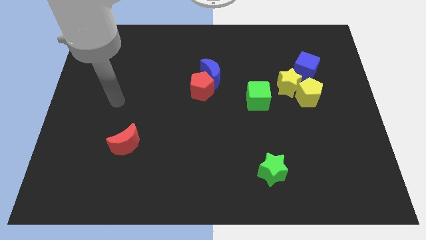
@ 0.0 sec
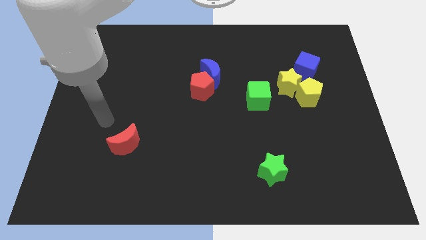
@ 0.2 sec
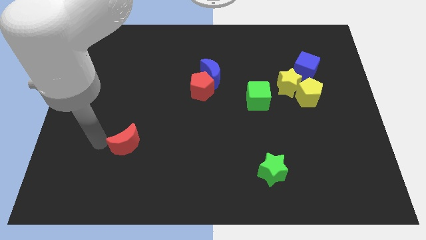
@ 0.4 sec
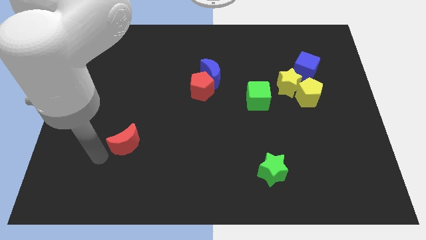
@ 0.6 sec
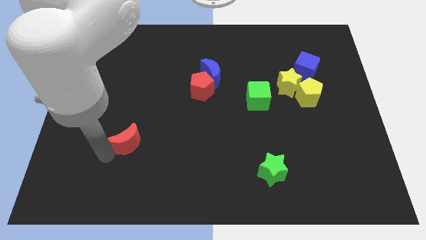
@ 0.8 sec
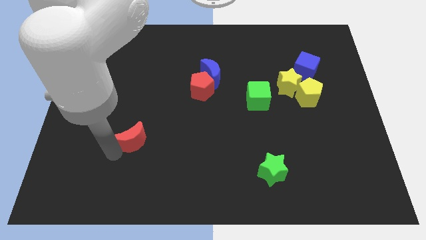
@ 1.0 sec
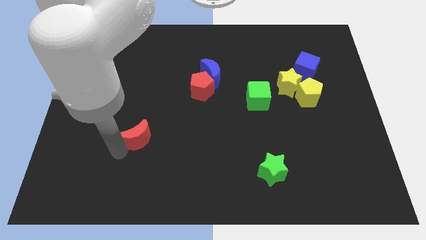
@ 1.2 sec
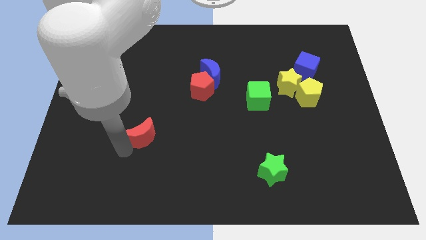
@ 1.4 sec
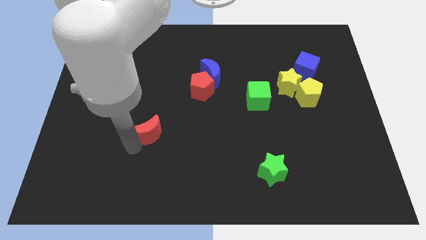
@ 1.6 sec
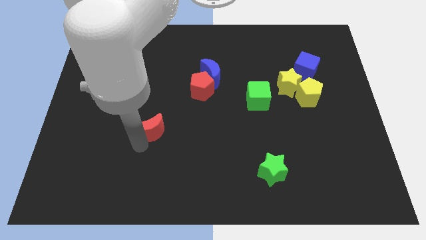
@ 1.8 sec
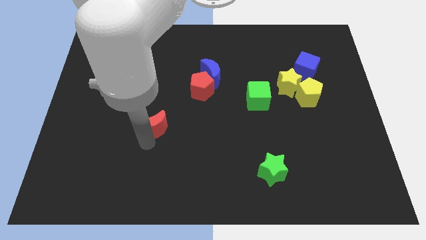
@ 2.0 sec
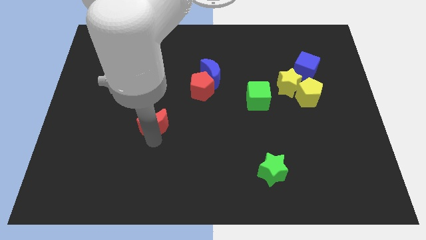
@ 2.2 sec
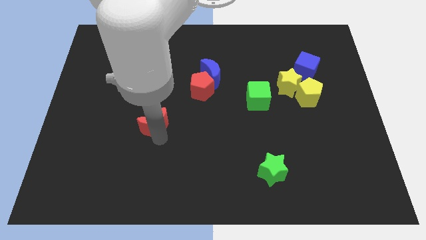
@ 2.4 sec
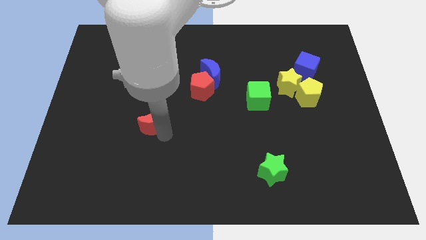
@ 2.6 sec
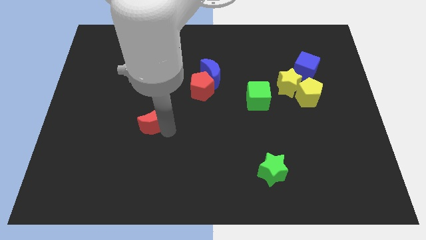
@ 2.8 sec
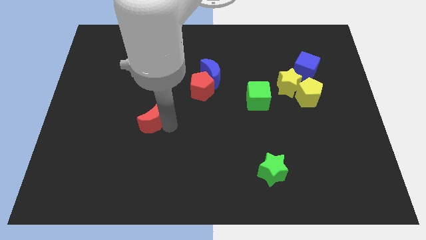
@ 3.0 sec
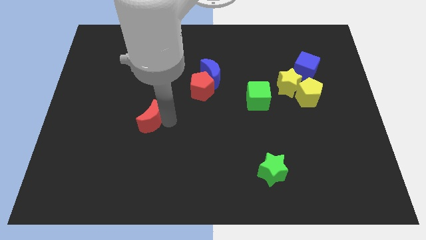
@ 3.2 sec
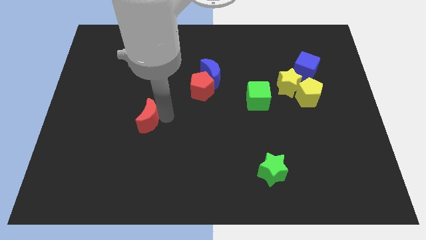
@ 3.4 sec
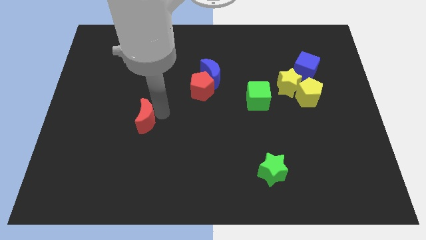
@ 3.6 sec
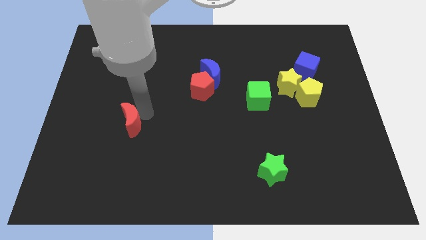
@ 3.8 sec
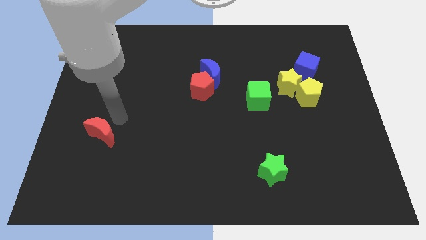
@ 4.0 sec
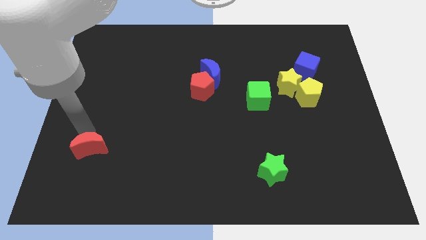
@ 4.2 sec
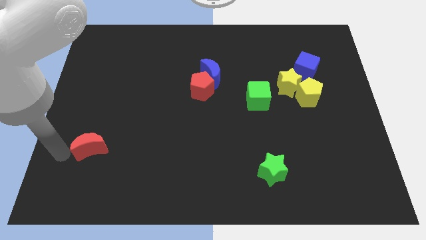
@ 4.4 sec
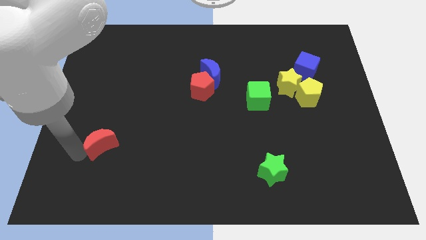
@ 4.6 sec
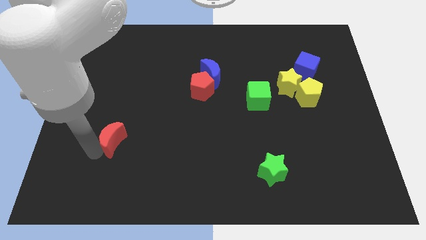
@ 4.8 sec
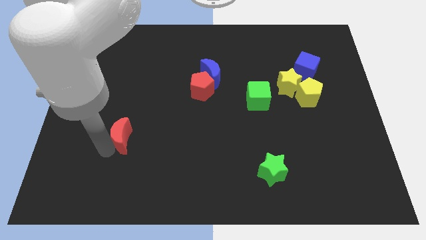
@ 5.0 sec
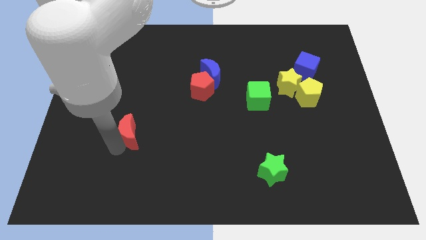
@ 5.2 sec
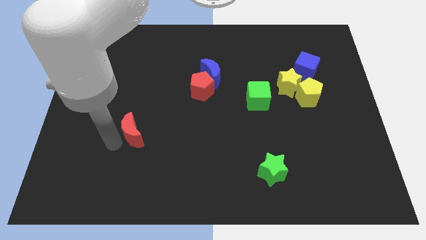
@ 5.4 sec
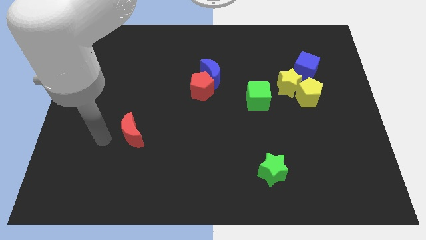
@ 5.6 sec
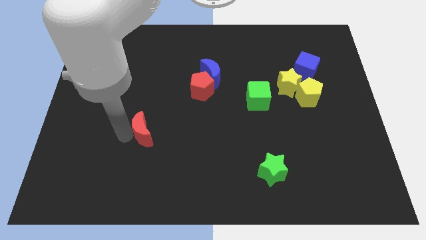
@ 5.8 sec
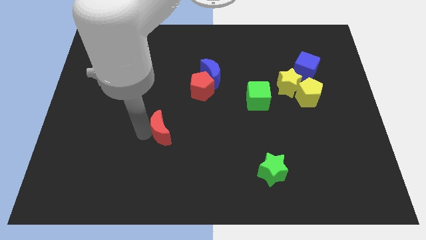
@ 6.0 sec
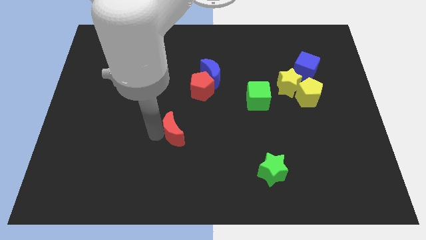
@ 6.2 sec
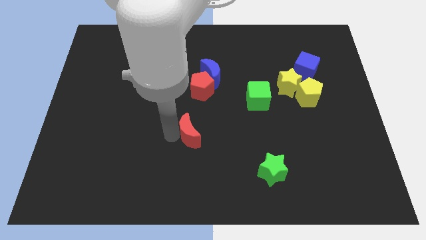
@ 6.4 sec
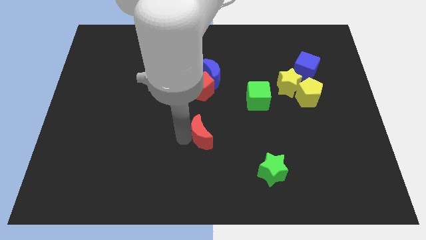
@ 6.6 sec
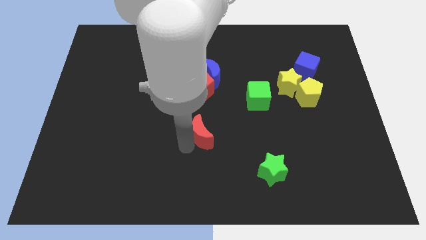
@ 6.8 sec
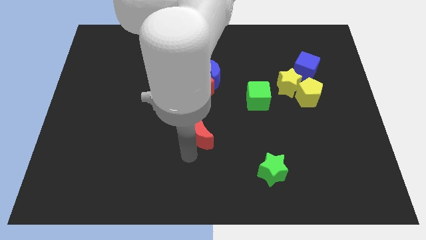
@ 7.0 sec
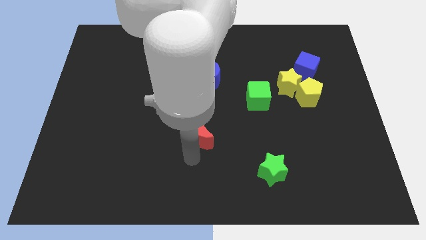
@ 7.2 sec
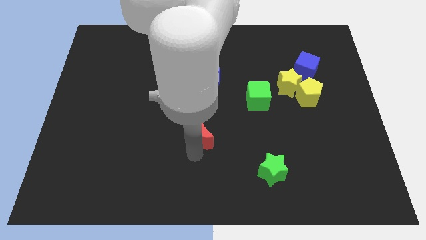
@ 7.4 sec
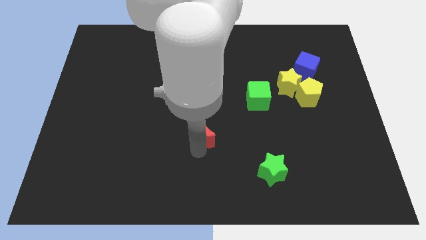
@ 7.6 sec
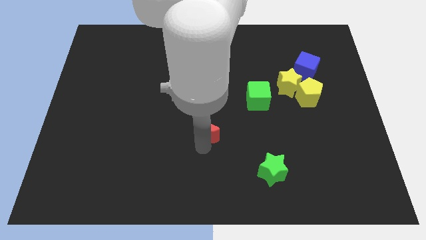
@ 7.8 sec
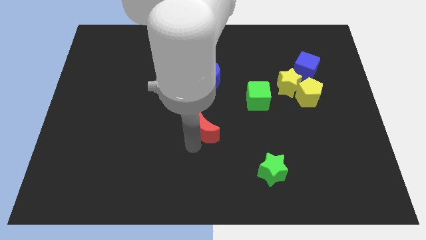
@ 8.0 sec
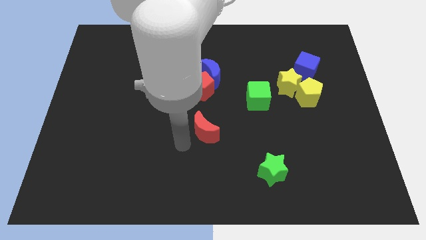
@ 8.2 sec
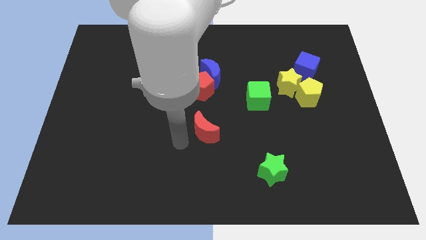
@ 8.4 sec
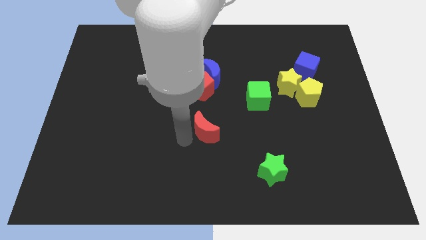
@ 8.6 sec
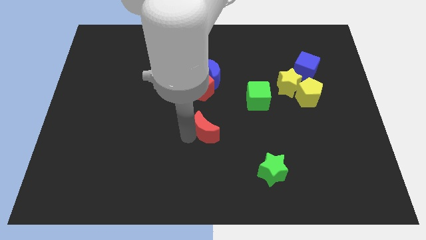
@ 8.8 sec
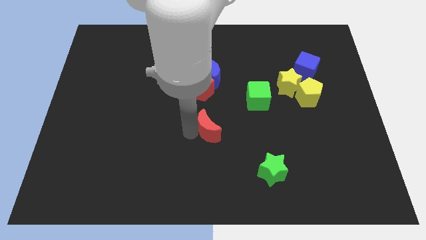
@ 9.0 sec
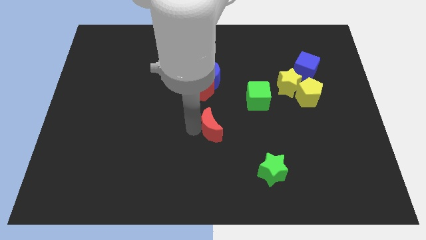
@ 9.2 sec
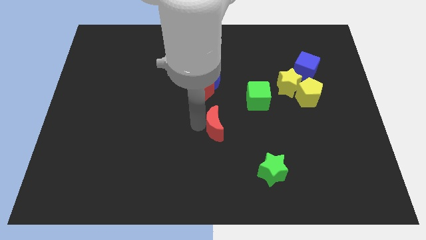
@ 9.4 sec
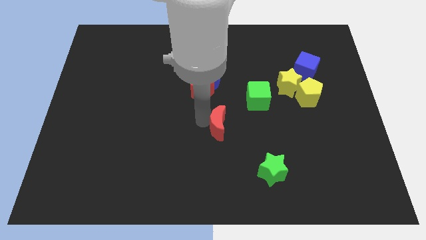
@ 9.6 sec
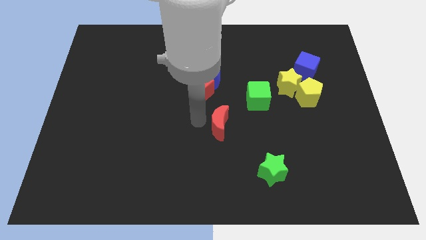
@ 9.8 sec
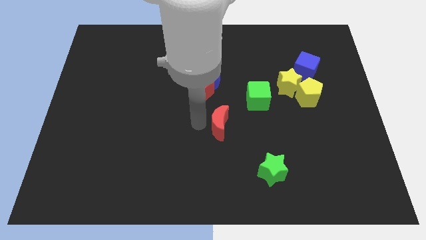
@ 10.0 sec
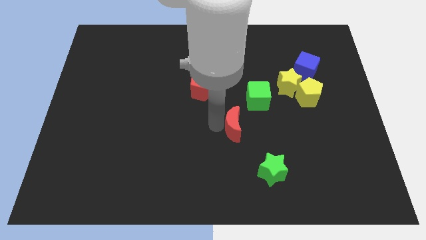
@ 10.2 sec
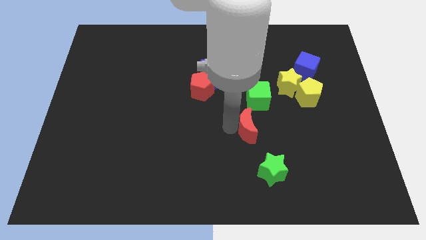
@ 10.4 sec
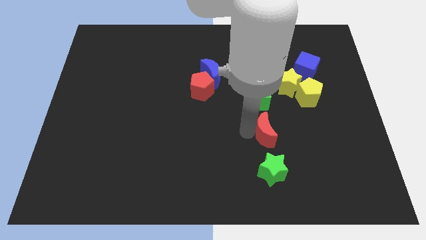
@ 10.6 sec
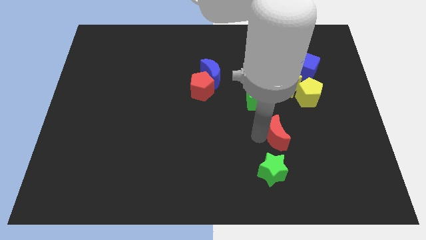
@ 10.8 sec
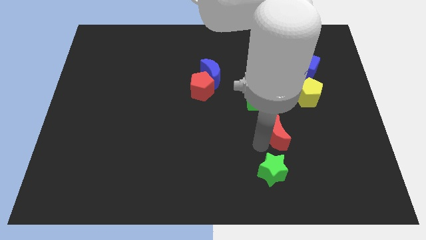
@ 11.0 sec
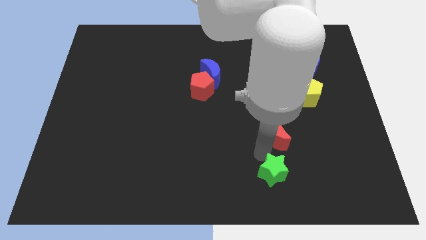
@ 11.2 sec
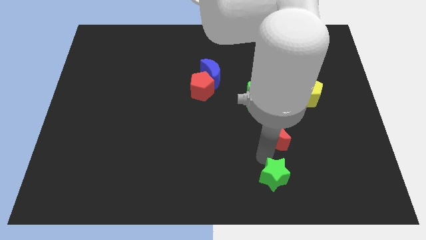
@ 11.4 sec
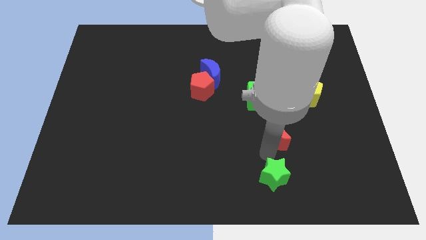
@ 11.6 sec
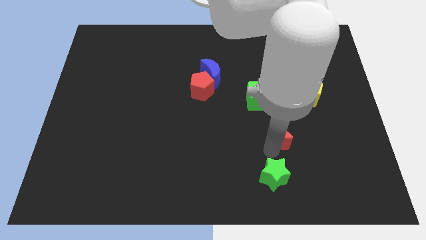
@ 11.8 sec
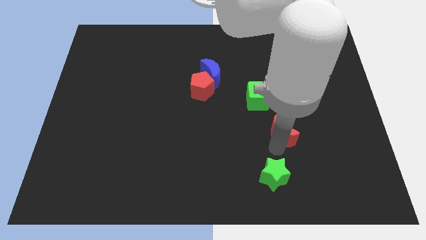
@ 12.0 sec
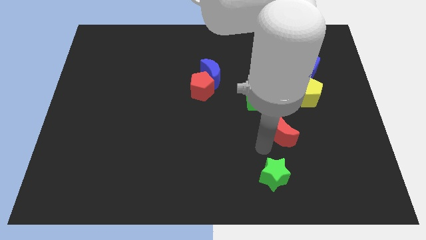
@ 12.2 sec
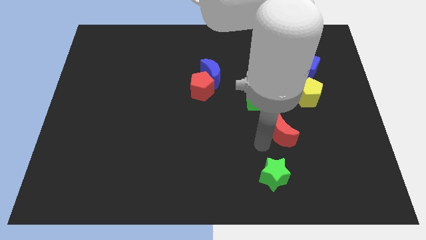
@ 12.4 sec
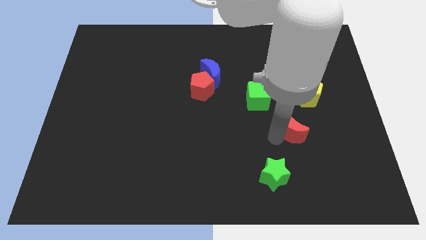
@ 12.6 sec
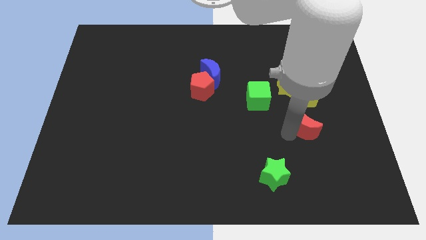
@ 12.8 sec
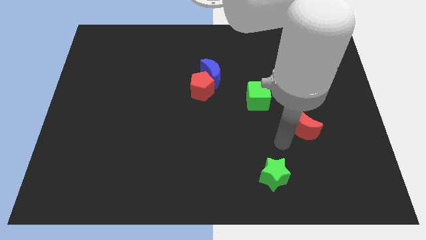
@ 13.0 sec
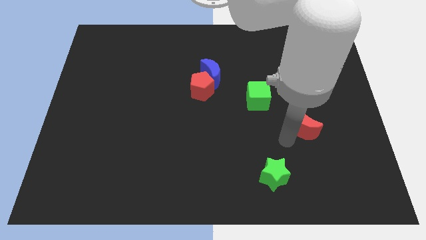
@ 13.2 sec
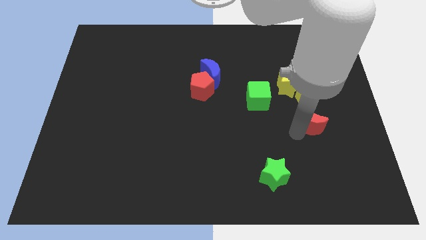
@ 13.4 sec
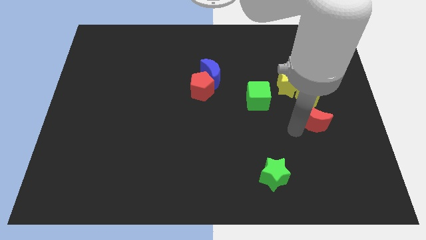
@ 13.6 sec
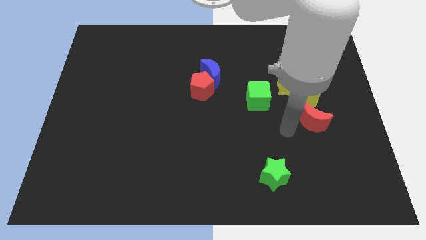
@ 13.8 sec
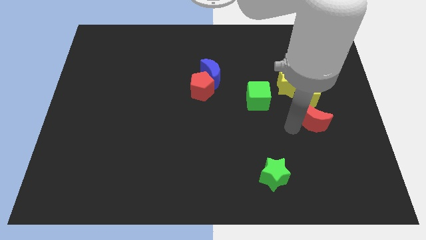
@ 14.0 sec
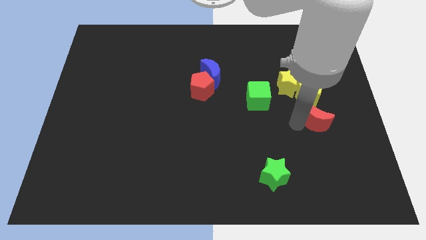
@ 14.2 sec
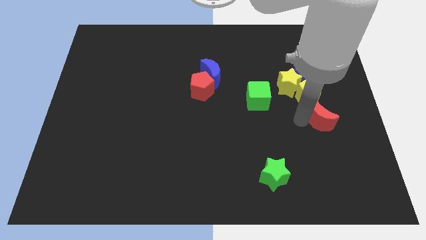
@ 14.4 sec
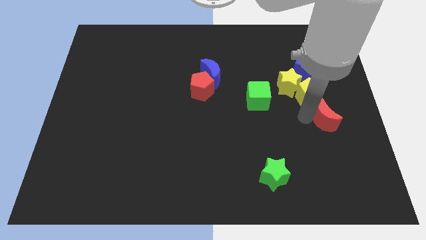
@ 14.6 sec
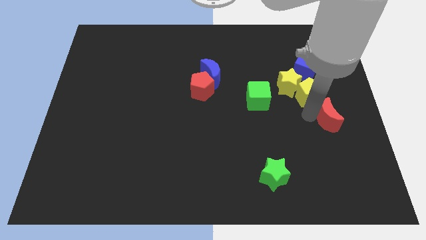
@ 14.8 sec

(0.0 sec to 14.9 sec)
move the red moon to the right side of the board
